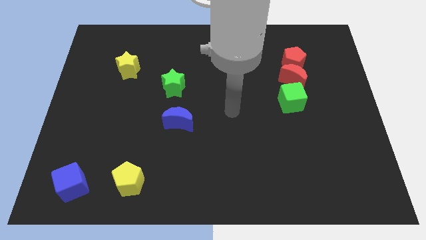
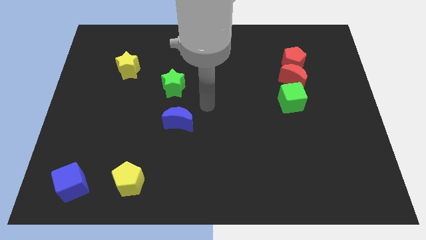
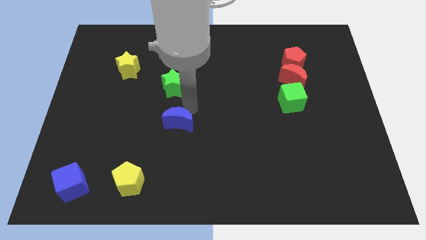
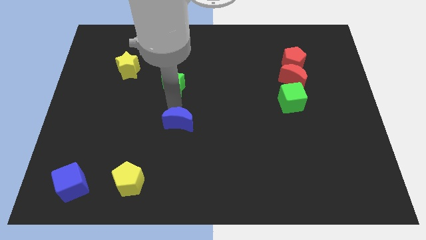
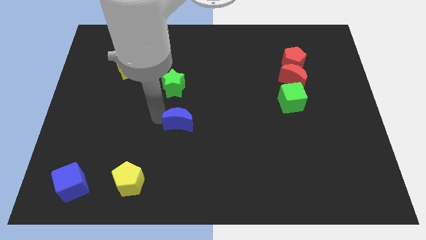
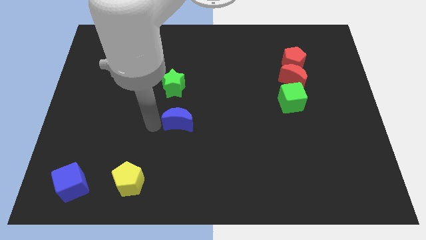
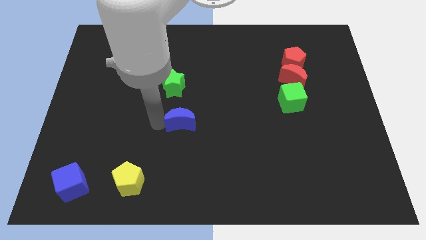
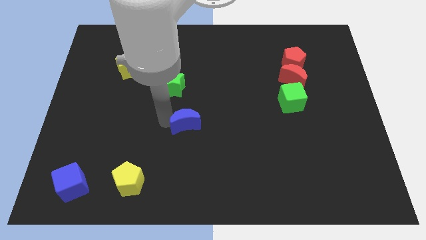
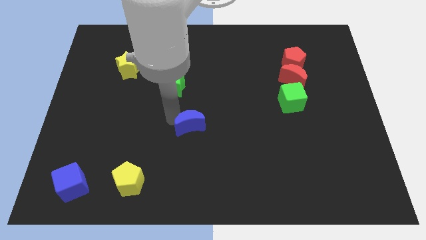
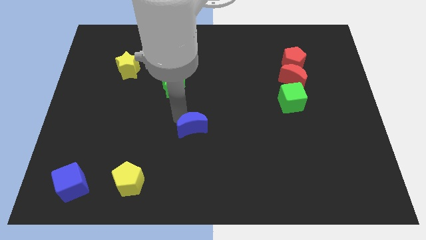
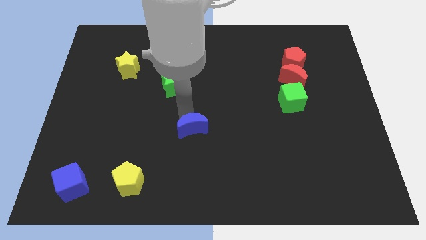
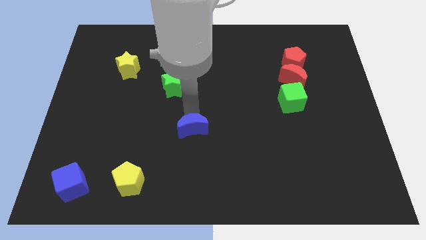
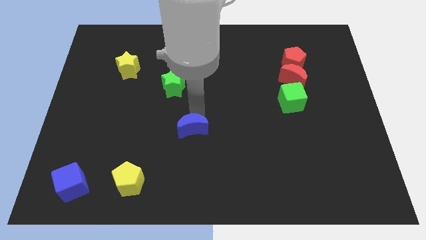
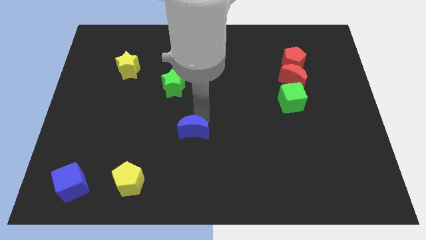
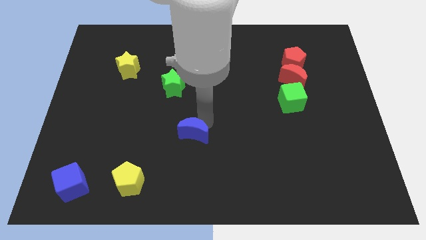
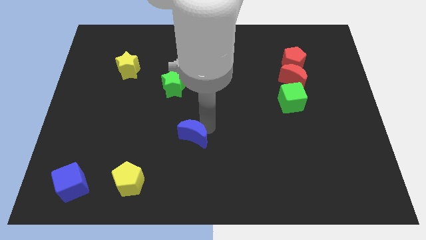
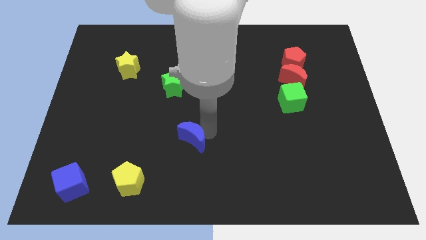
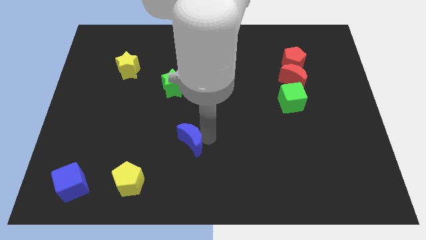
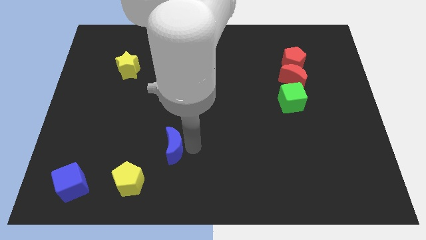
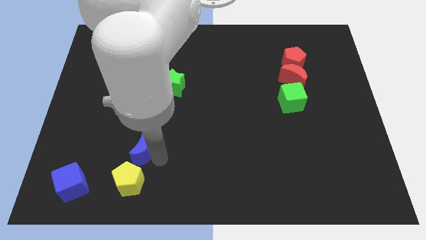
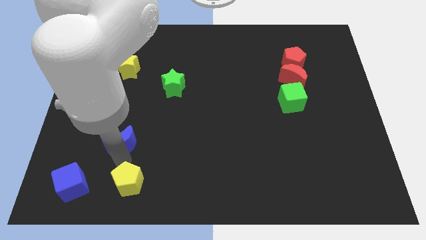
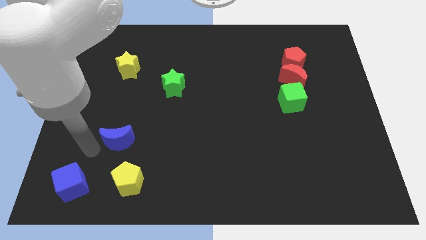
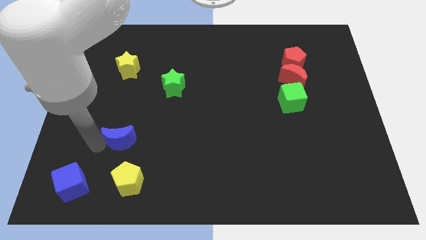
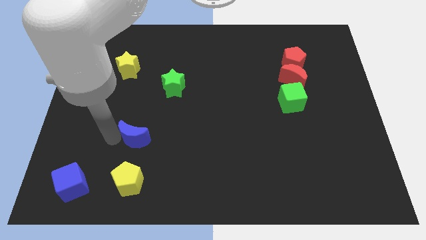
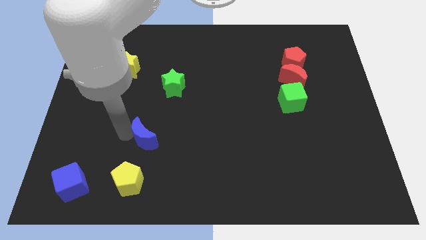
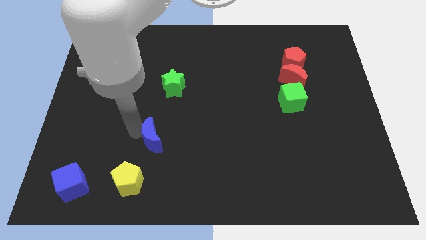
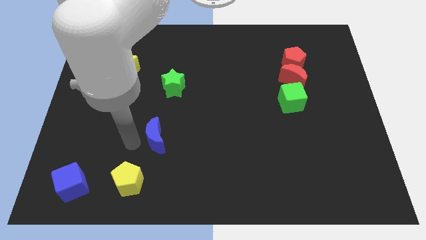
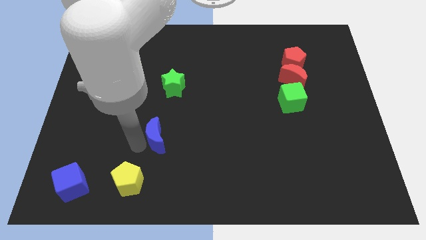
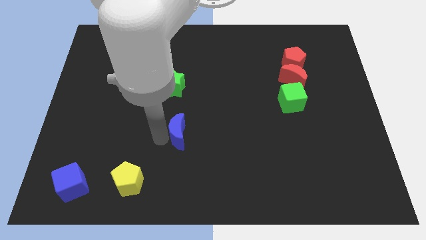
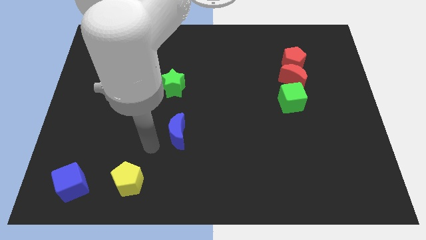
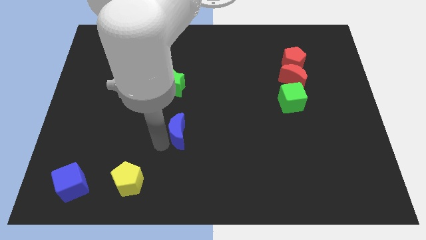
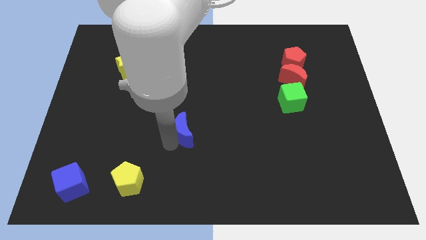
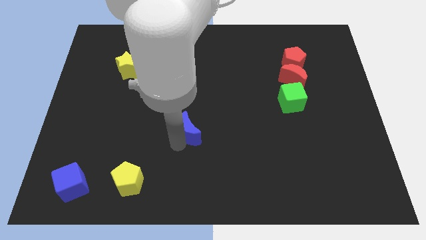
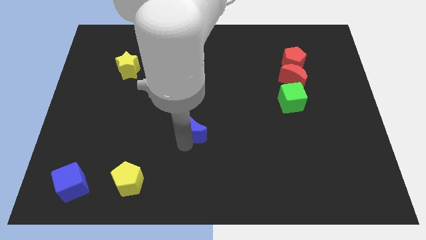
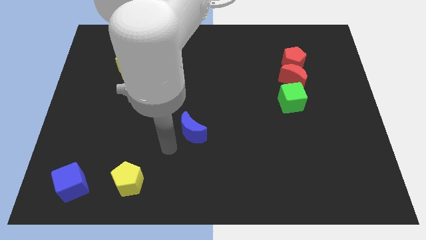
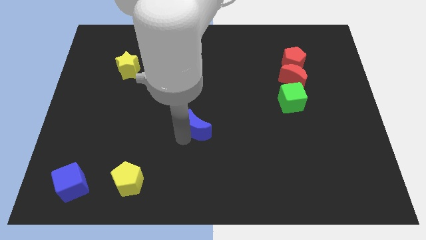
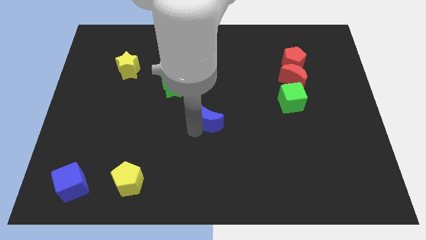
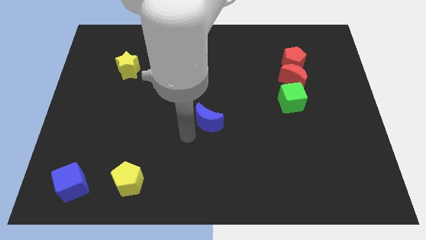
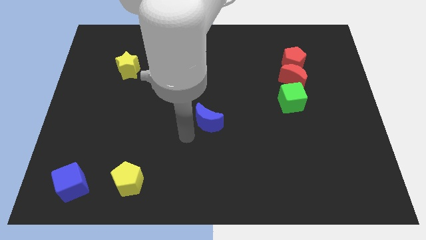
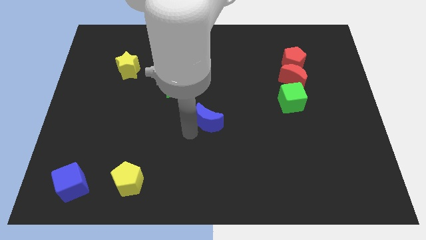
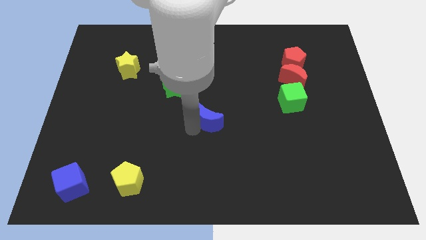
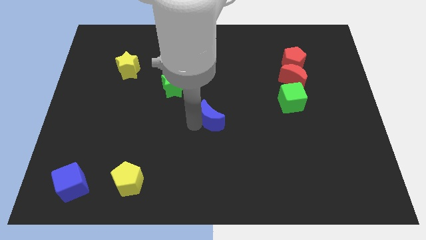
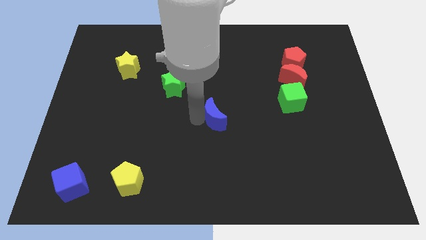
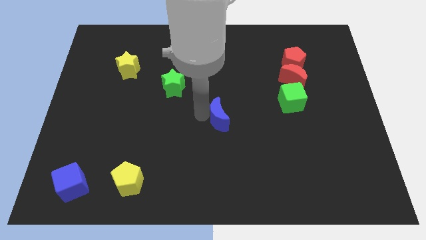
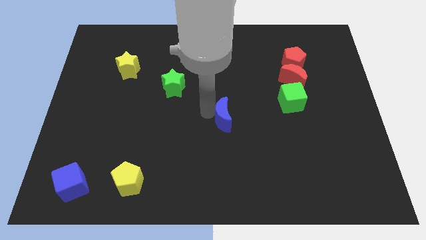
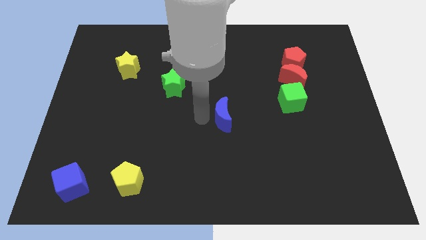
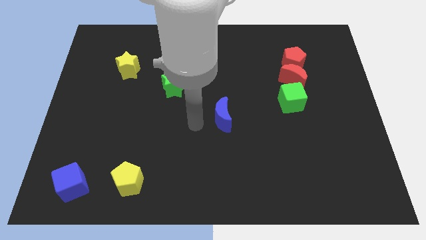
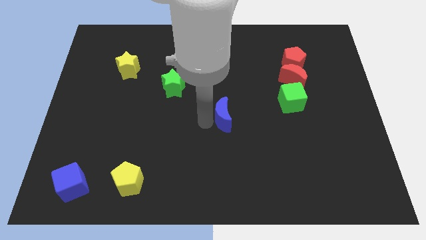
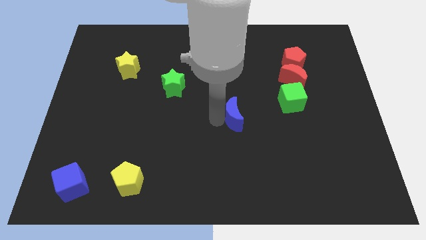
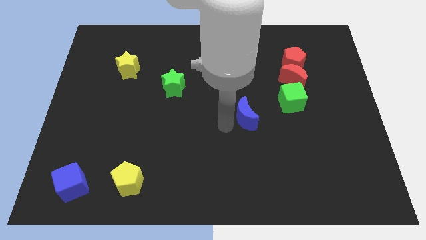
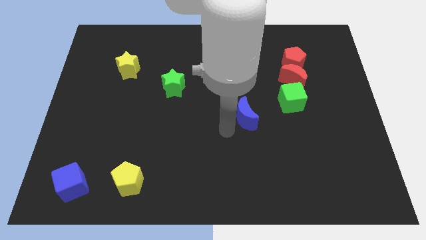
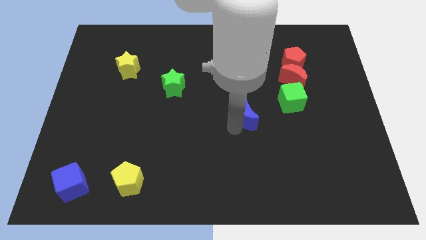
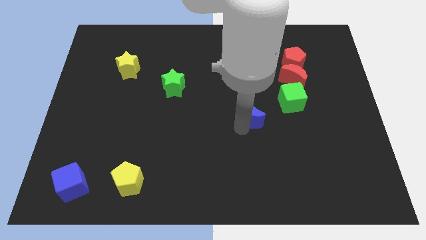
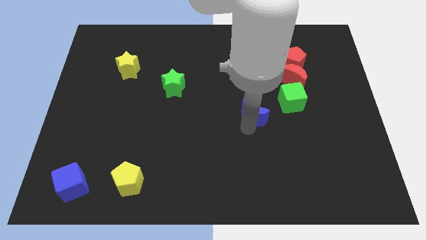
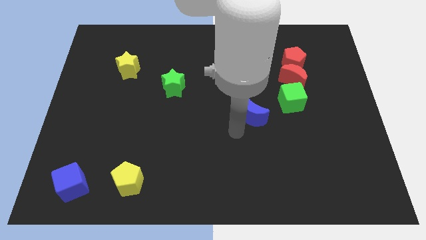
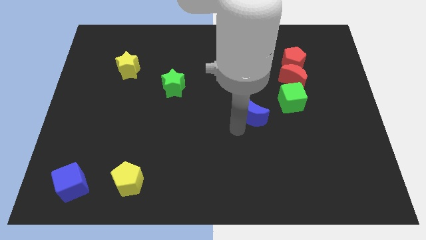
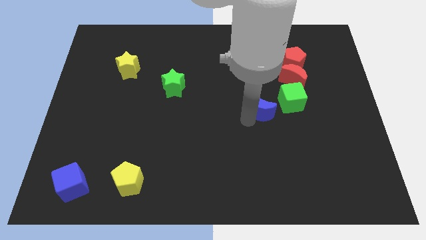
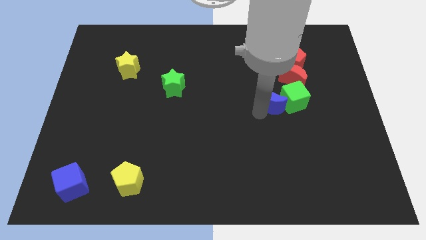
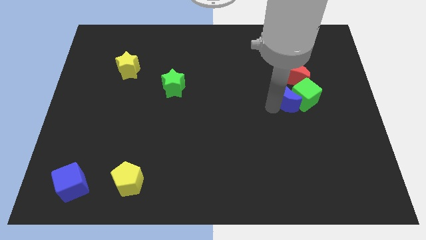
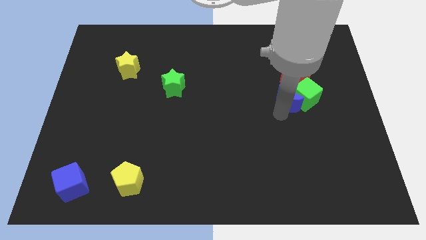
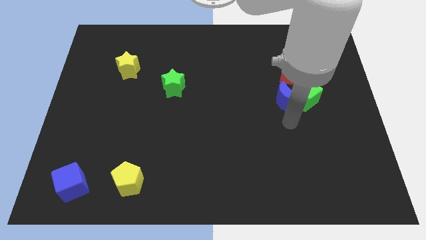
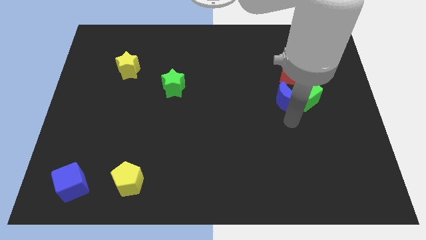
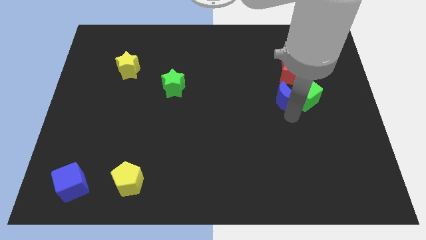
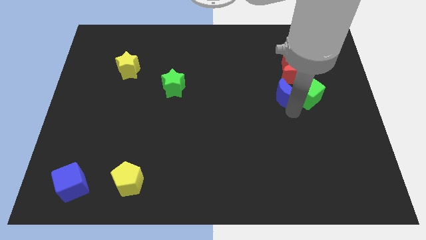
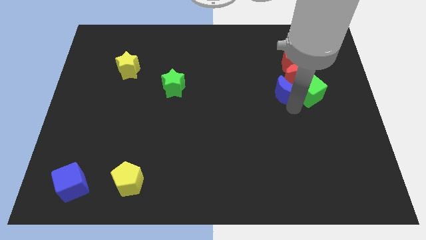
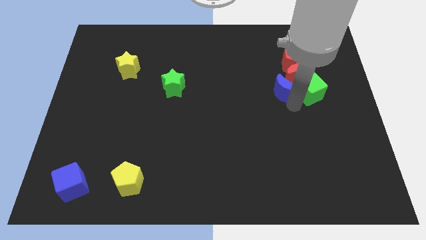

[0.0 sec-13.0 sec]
slide the blue moon to the red moon
